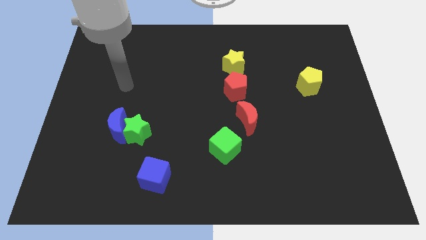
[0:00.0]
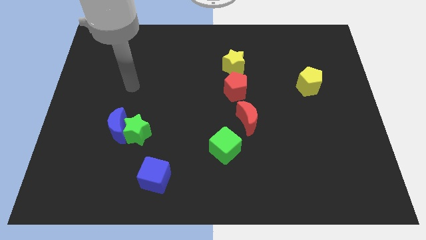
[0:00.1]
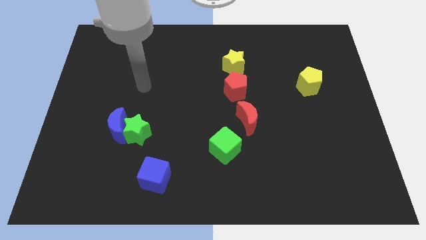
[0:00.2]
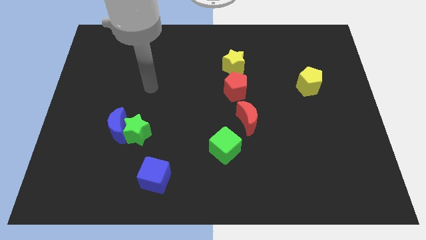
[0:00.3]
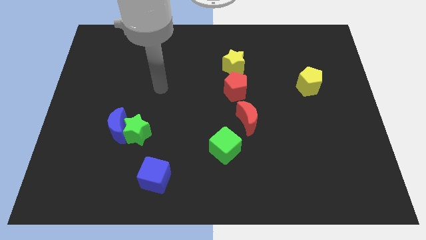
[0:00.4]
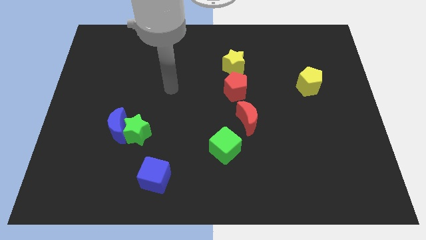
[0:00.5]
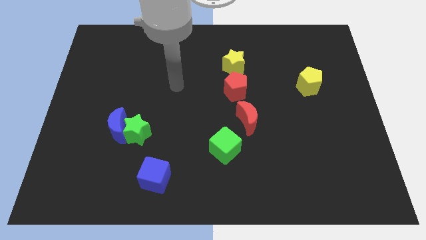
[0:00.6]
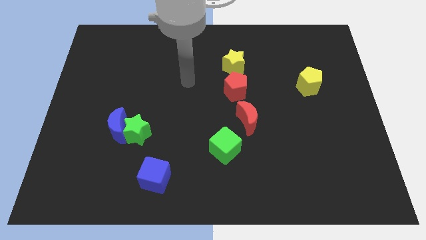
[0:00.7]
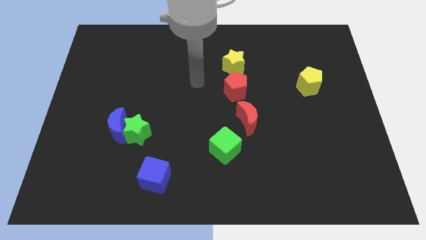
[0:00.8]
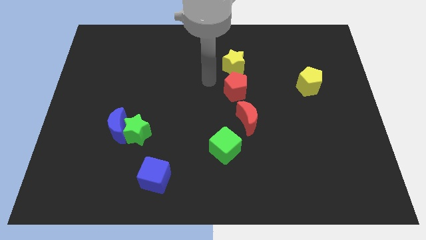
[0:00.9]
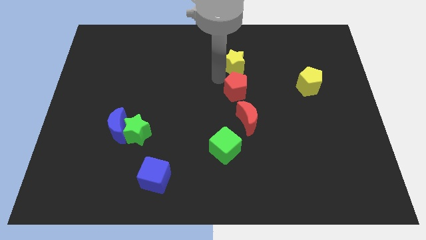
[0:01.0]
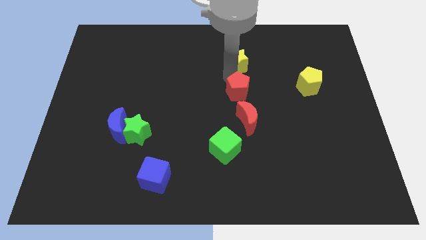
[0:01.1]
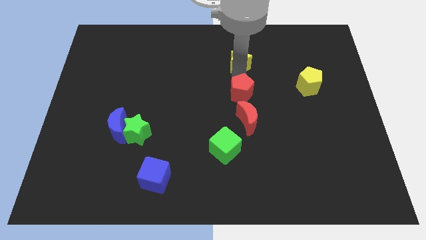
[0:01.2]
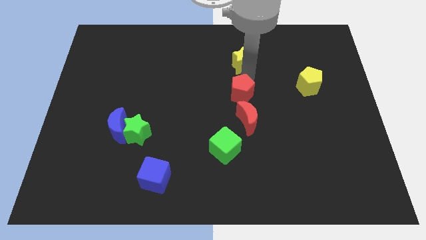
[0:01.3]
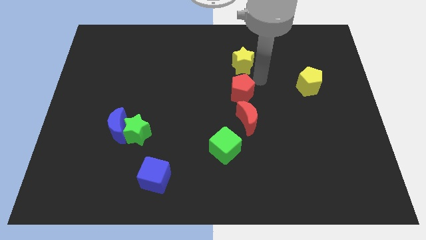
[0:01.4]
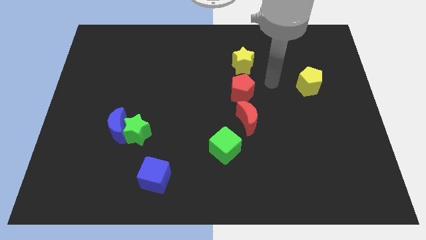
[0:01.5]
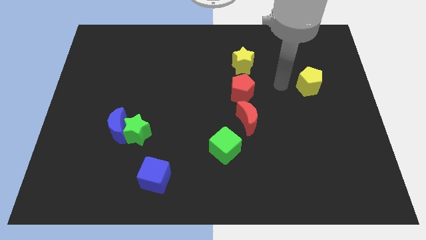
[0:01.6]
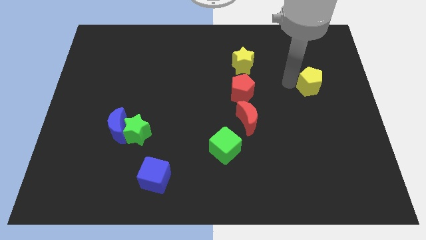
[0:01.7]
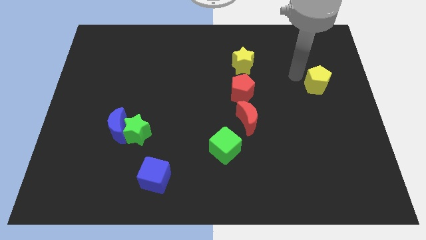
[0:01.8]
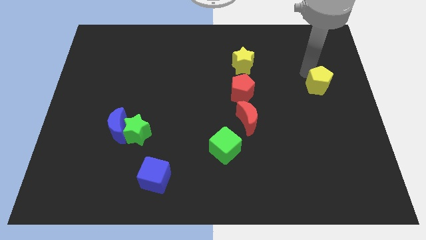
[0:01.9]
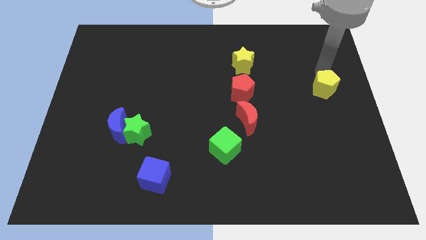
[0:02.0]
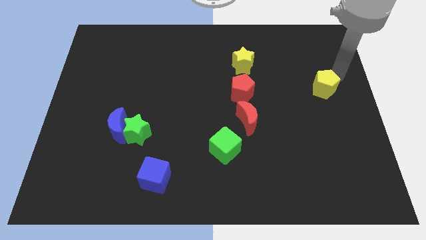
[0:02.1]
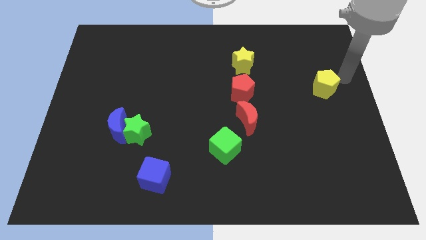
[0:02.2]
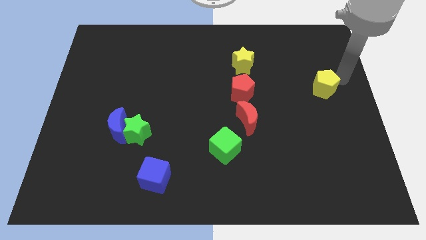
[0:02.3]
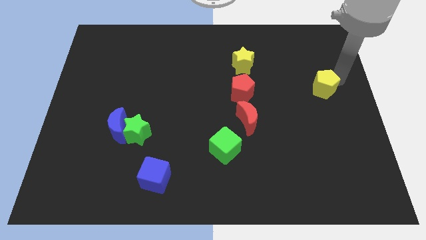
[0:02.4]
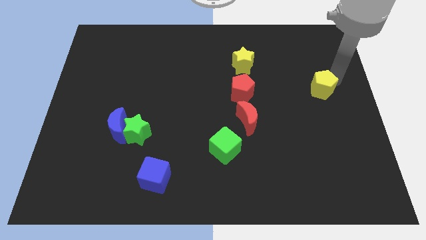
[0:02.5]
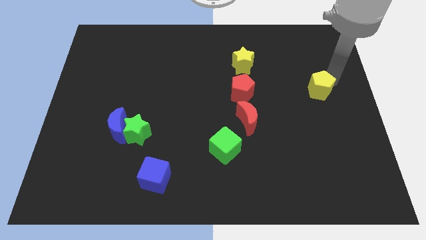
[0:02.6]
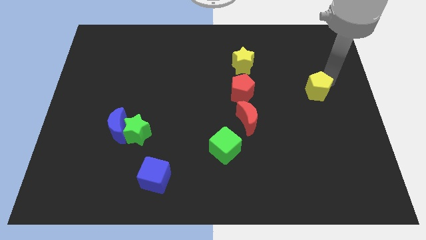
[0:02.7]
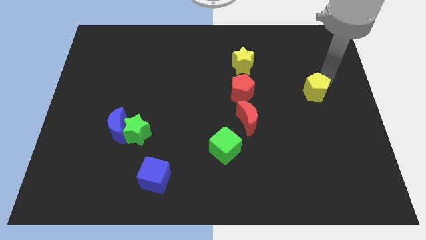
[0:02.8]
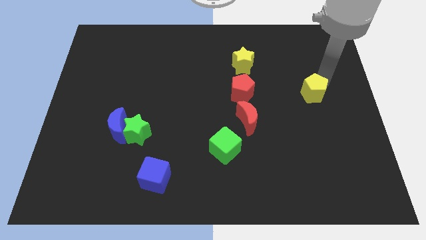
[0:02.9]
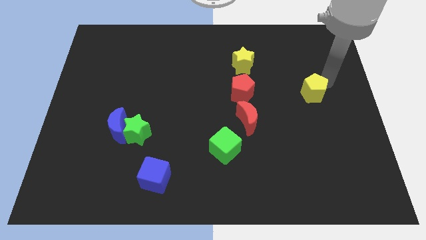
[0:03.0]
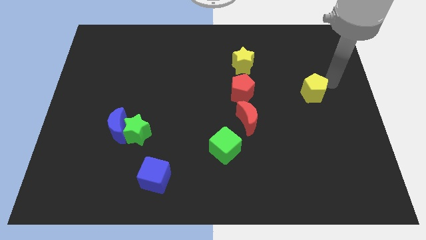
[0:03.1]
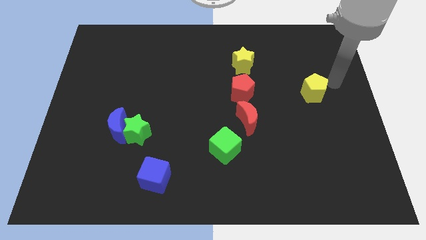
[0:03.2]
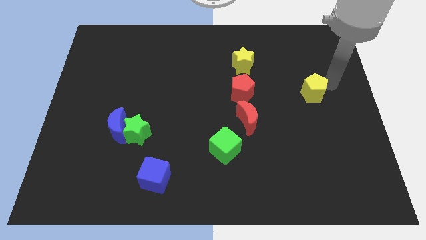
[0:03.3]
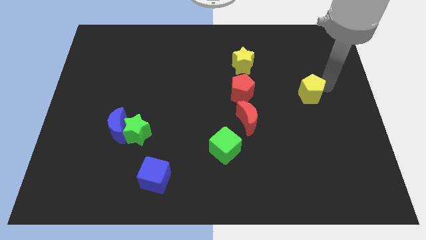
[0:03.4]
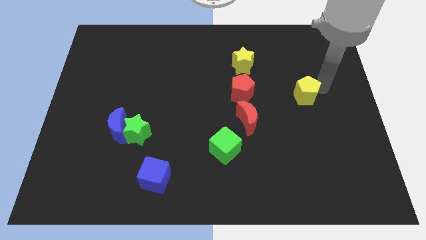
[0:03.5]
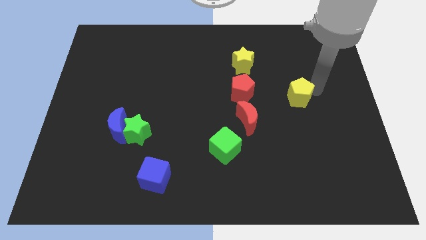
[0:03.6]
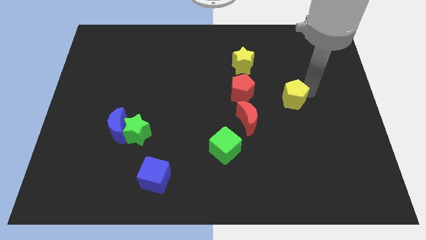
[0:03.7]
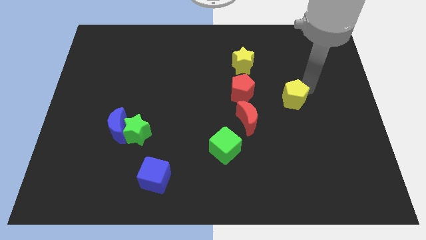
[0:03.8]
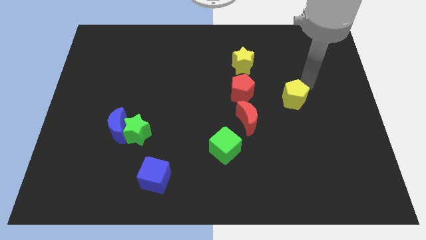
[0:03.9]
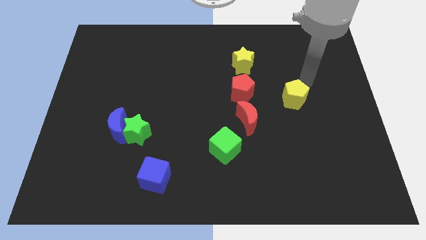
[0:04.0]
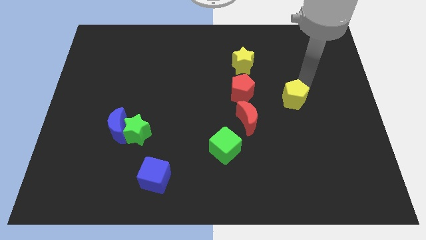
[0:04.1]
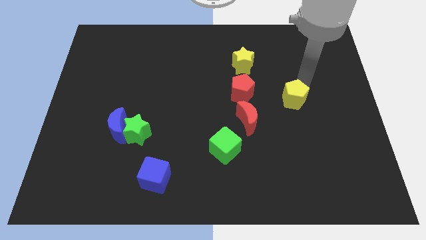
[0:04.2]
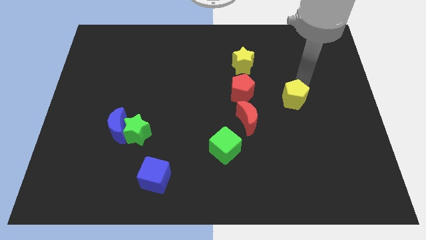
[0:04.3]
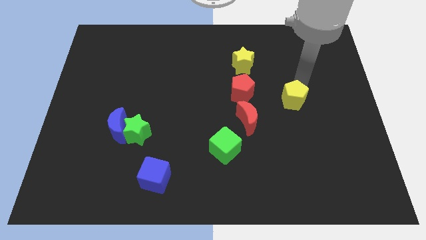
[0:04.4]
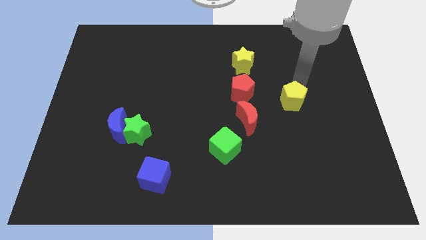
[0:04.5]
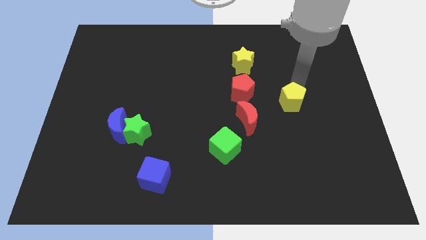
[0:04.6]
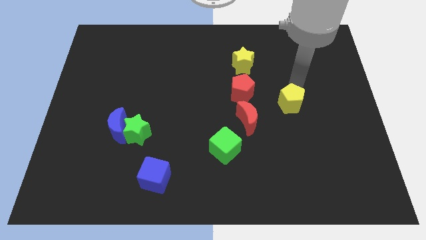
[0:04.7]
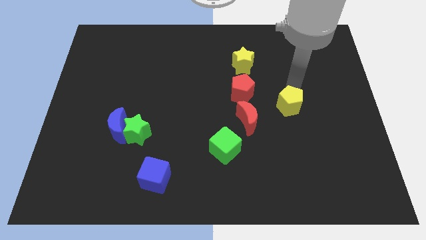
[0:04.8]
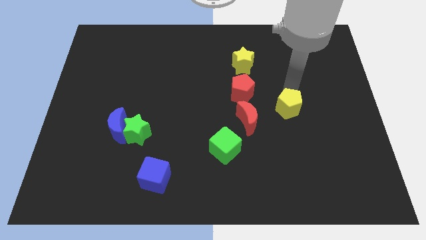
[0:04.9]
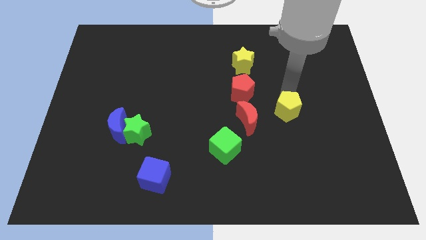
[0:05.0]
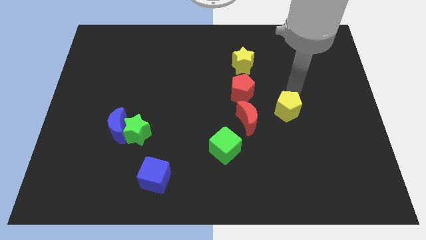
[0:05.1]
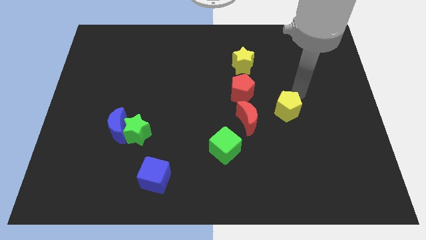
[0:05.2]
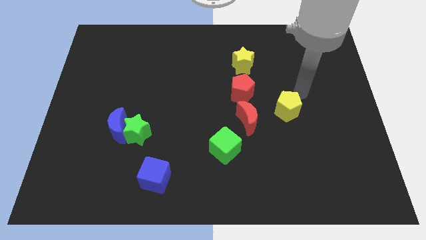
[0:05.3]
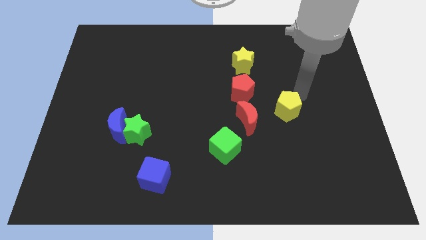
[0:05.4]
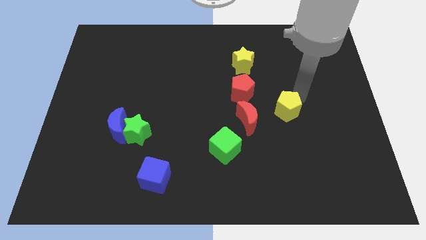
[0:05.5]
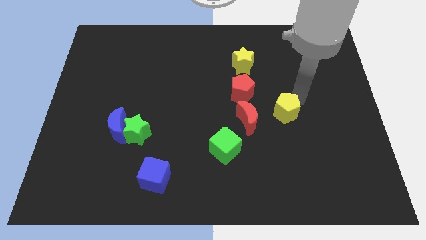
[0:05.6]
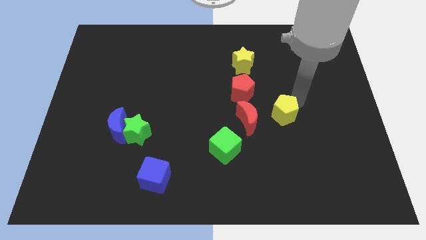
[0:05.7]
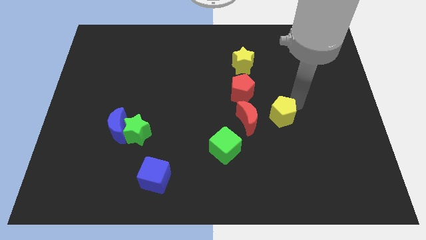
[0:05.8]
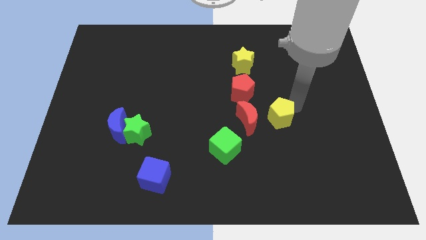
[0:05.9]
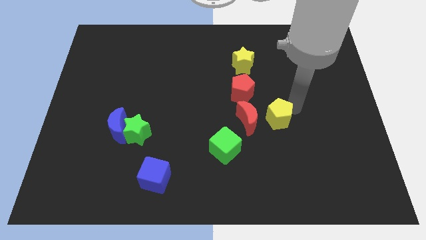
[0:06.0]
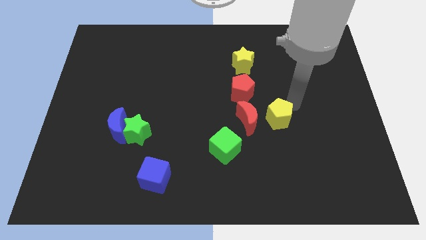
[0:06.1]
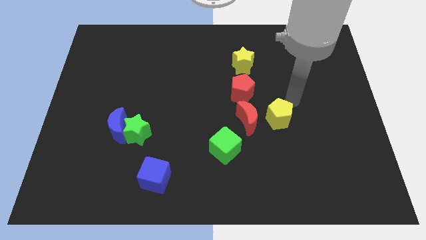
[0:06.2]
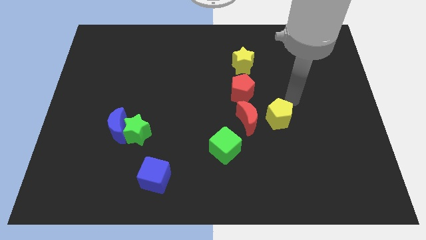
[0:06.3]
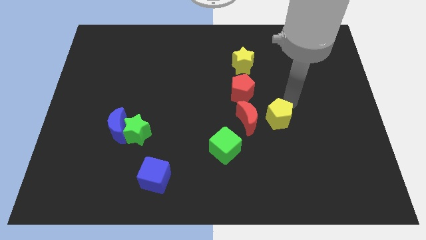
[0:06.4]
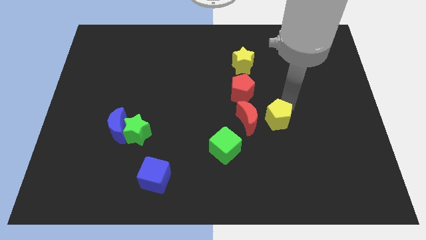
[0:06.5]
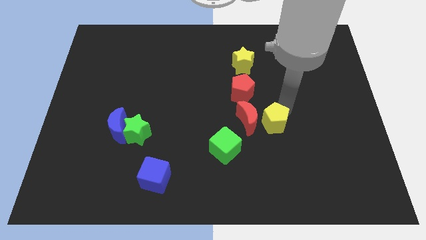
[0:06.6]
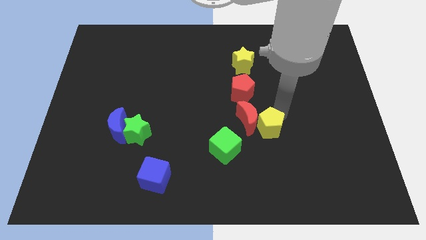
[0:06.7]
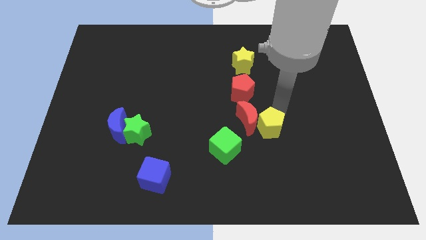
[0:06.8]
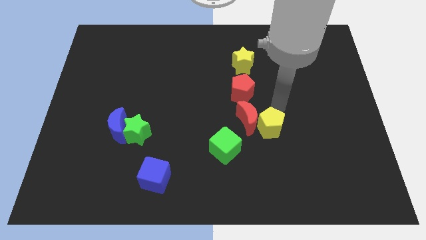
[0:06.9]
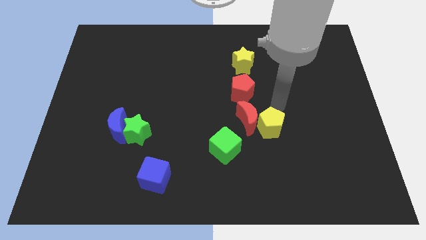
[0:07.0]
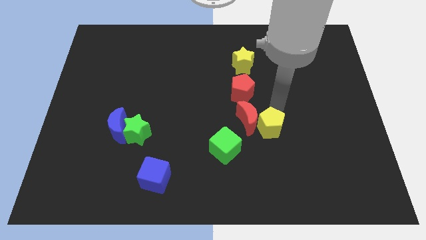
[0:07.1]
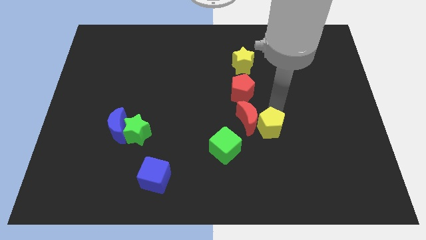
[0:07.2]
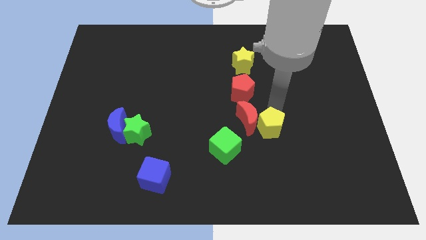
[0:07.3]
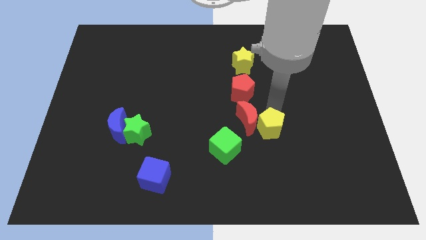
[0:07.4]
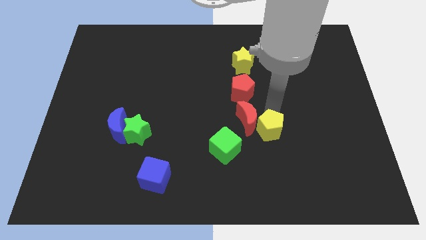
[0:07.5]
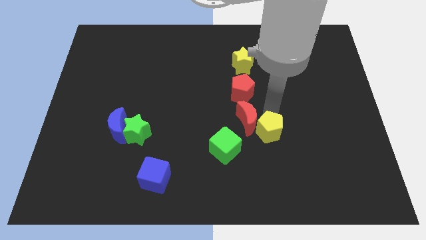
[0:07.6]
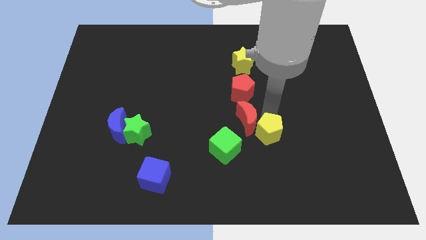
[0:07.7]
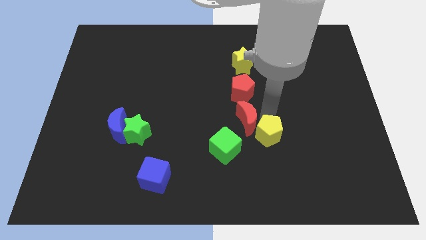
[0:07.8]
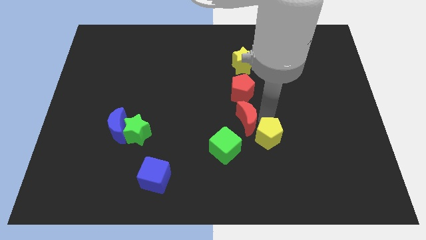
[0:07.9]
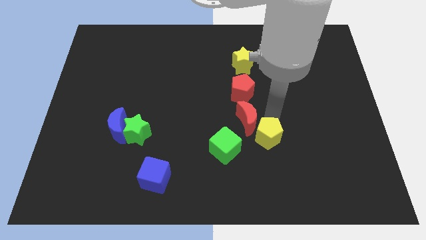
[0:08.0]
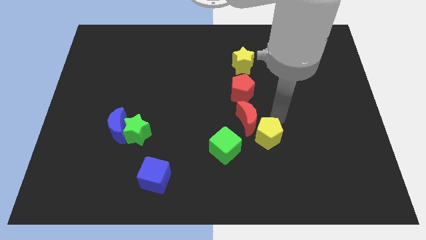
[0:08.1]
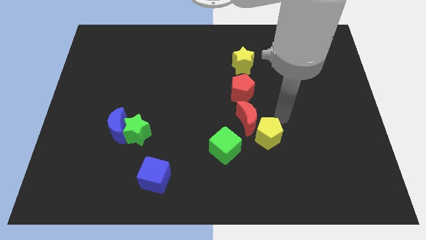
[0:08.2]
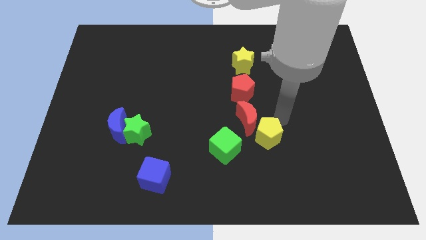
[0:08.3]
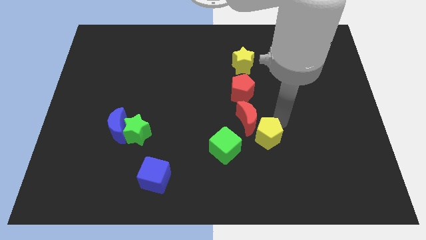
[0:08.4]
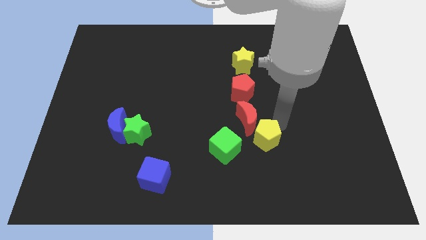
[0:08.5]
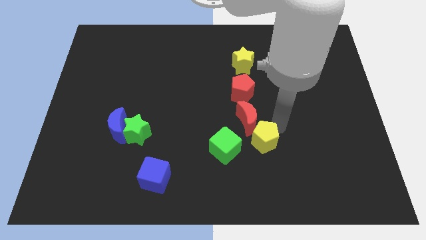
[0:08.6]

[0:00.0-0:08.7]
push the yellow pentagon down and then left
